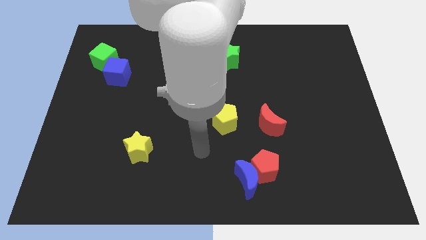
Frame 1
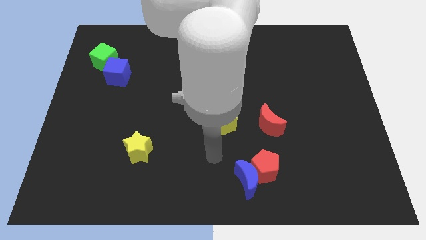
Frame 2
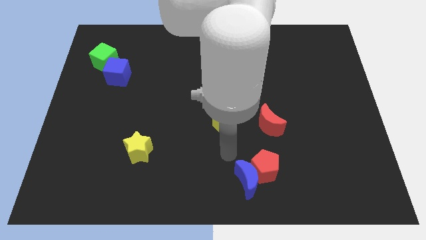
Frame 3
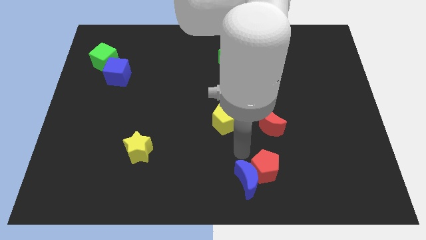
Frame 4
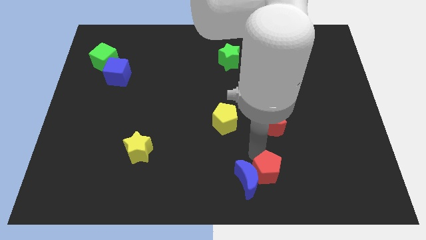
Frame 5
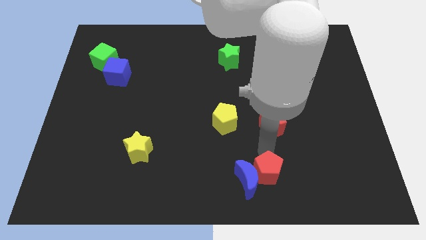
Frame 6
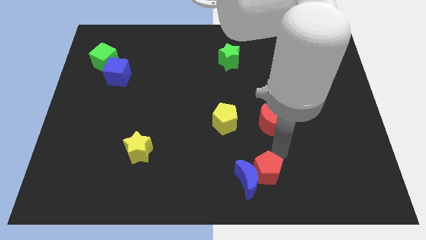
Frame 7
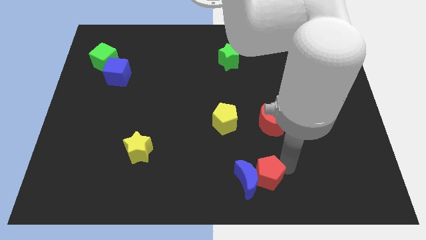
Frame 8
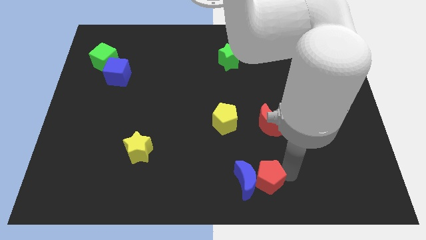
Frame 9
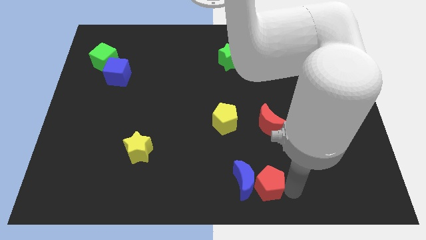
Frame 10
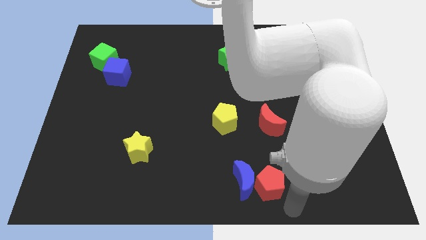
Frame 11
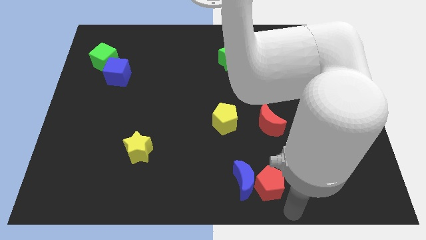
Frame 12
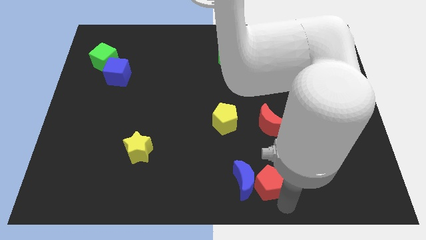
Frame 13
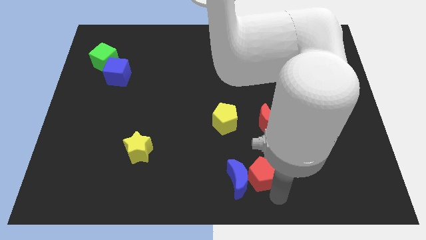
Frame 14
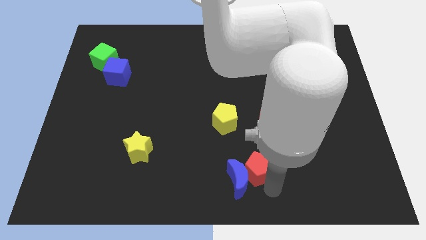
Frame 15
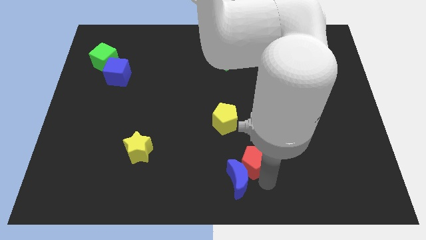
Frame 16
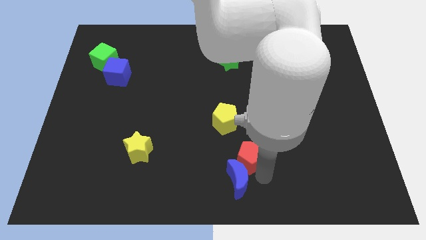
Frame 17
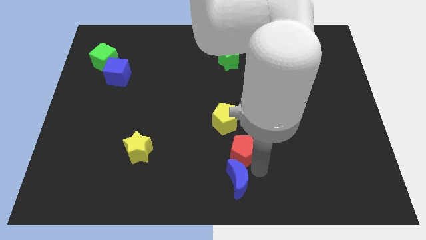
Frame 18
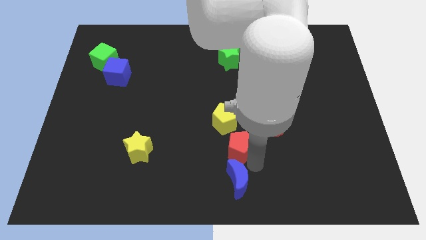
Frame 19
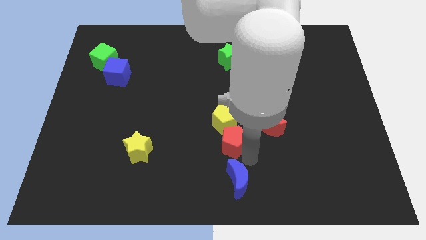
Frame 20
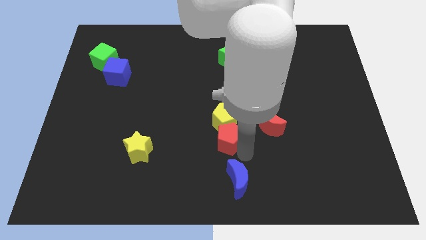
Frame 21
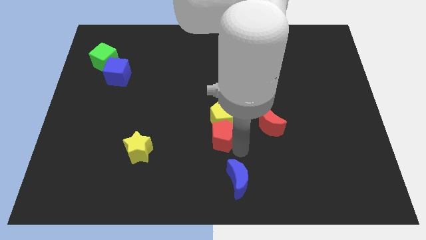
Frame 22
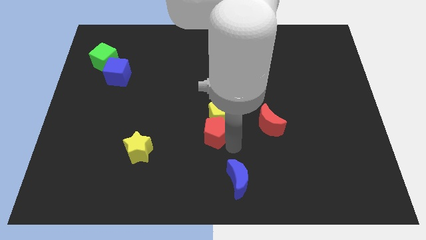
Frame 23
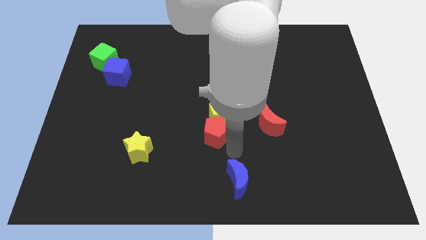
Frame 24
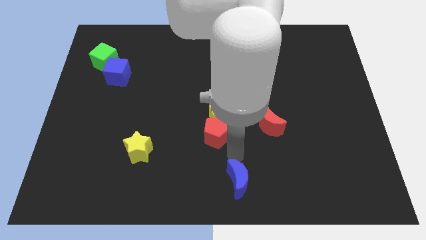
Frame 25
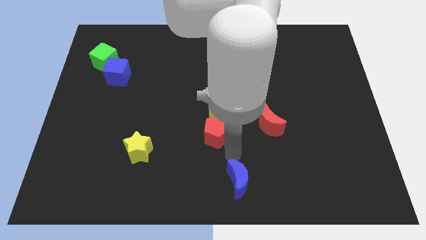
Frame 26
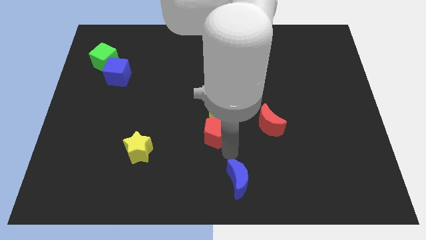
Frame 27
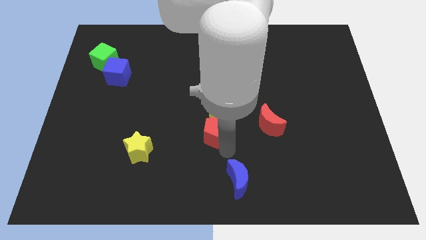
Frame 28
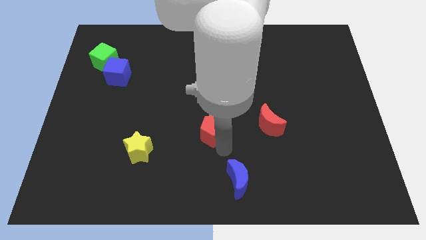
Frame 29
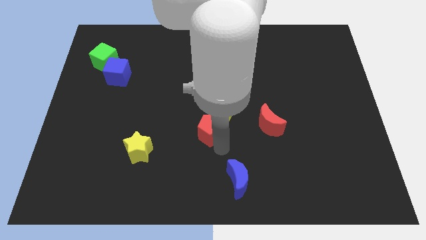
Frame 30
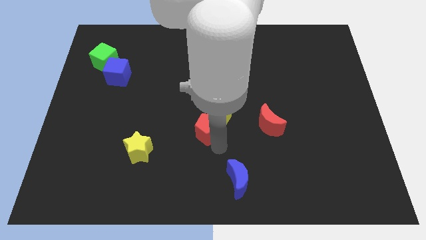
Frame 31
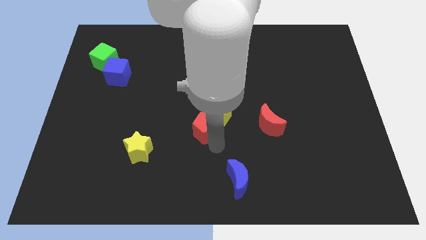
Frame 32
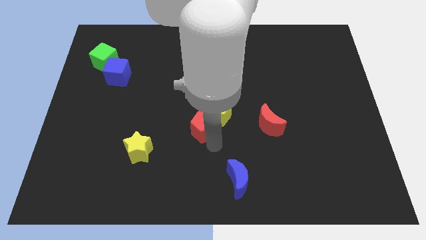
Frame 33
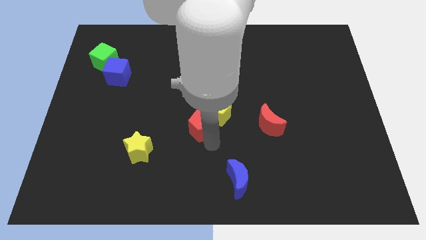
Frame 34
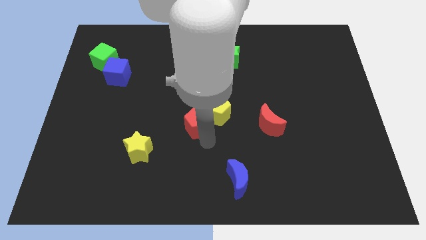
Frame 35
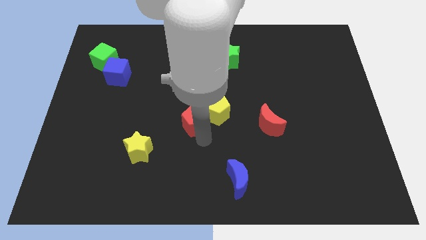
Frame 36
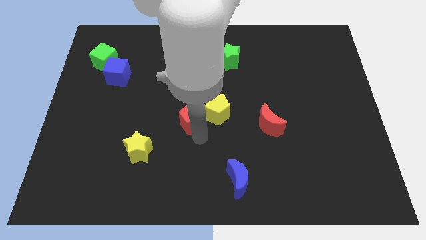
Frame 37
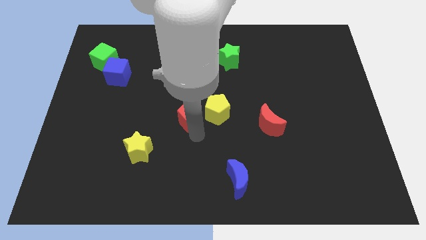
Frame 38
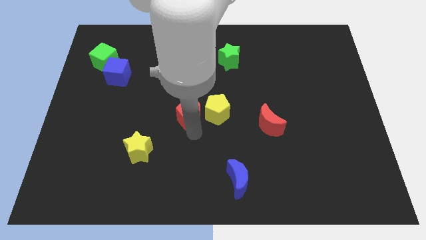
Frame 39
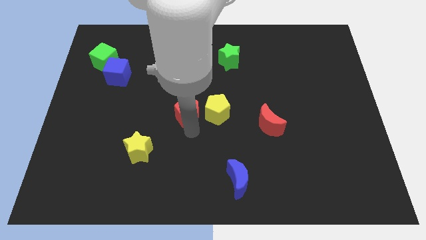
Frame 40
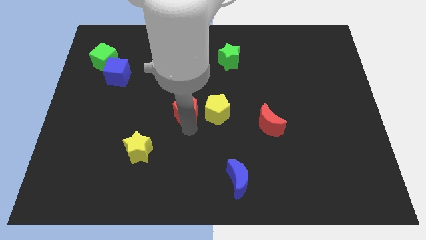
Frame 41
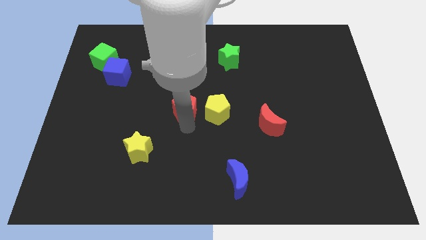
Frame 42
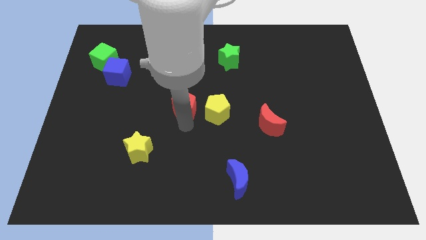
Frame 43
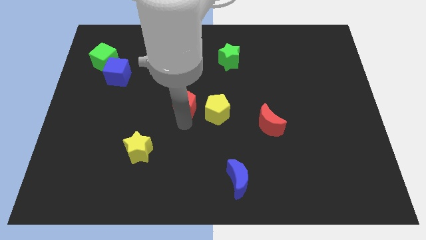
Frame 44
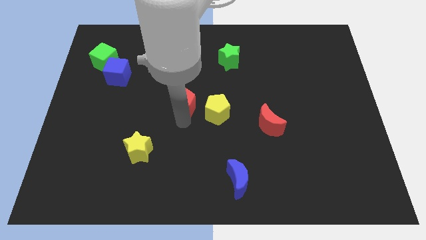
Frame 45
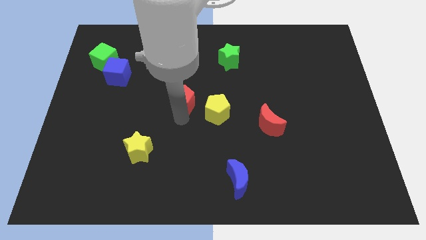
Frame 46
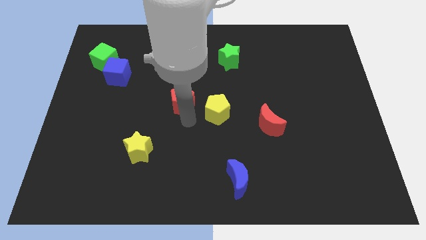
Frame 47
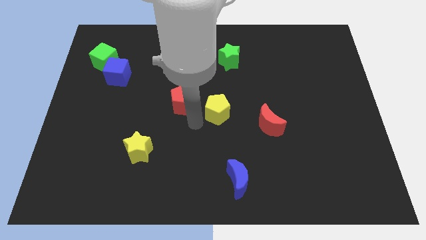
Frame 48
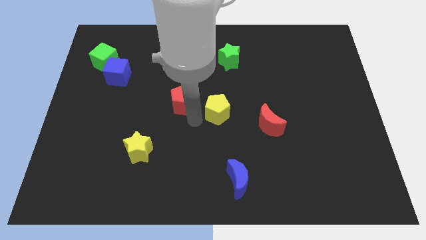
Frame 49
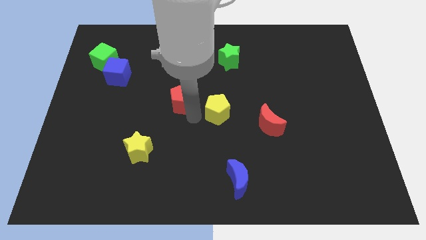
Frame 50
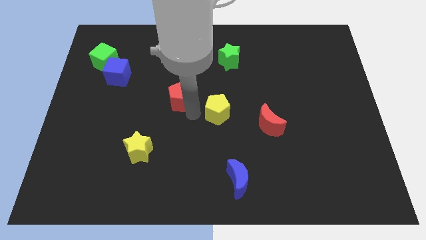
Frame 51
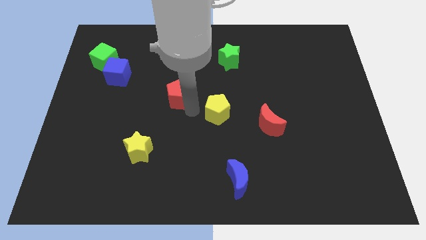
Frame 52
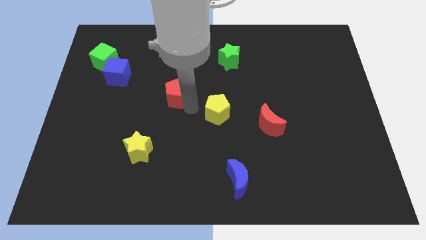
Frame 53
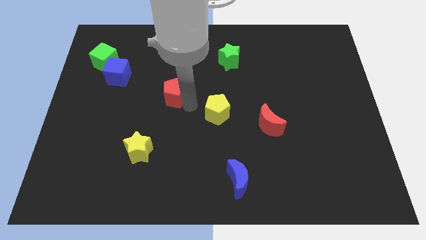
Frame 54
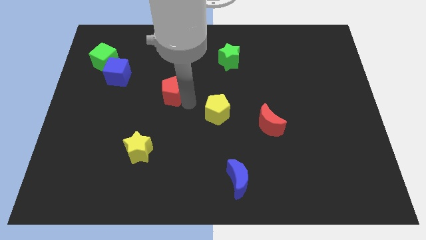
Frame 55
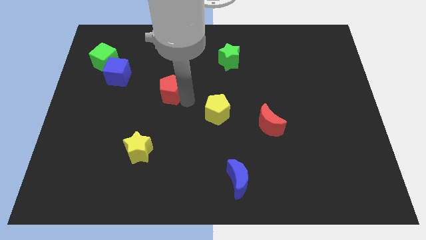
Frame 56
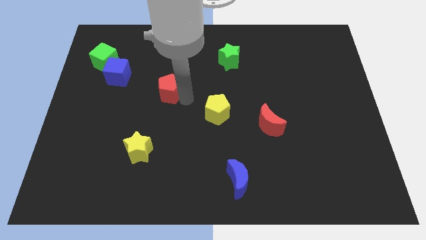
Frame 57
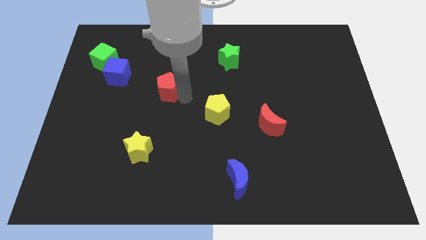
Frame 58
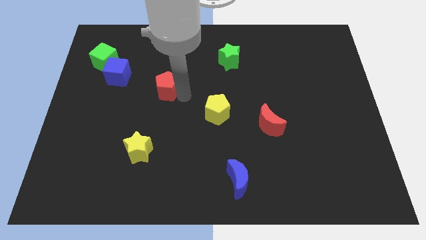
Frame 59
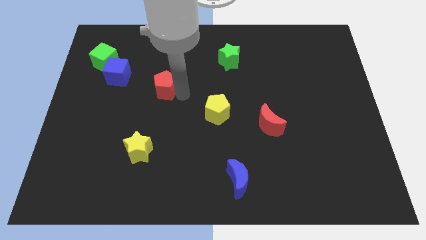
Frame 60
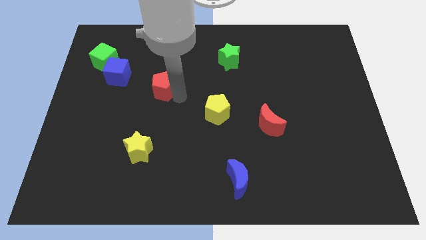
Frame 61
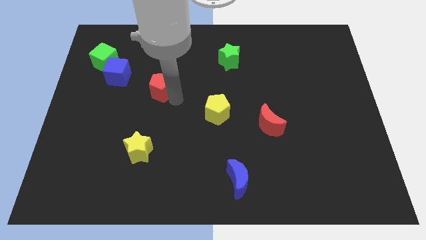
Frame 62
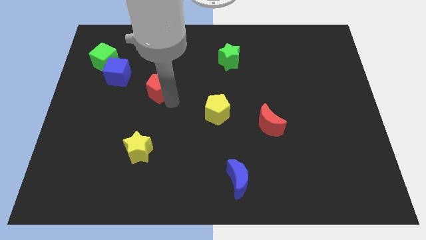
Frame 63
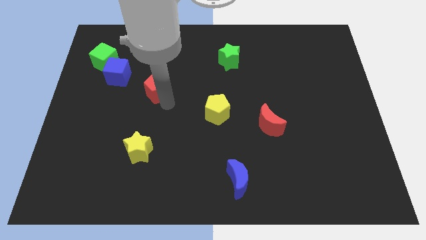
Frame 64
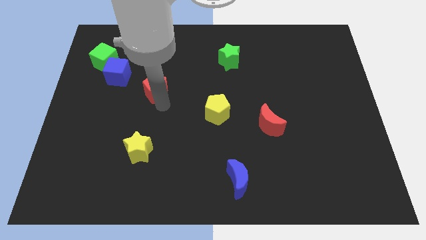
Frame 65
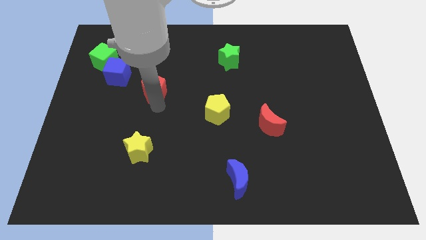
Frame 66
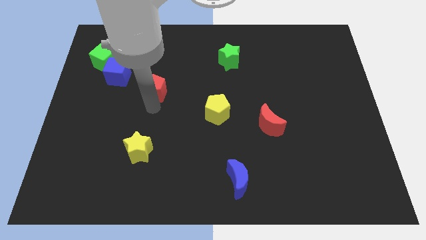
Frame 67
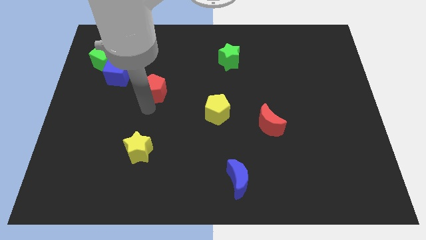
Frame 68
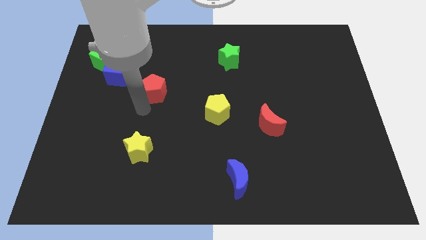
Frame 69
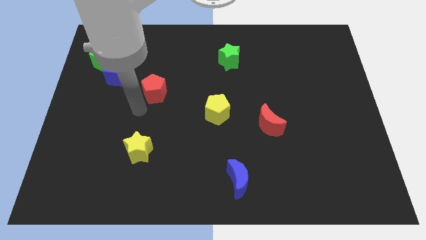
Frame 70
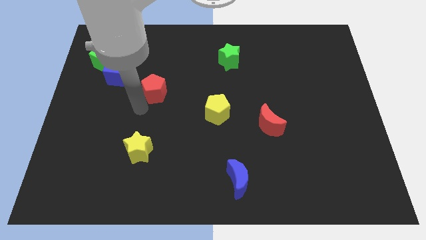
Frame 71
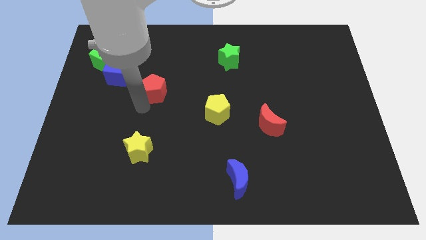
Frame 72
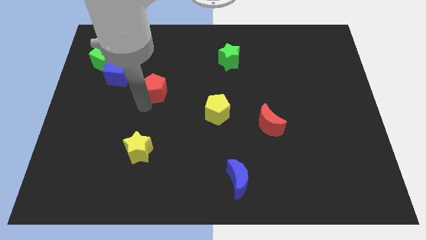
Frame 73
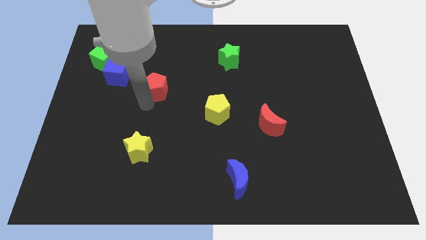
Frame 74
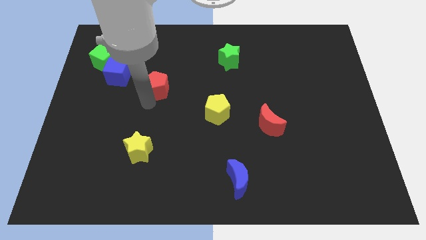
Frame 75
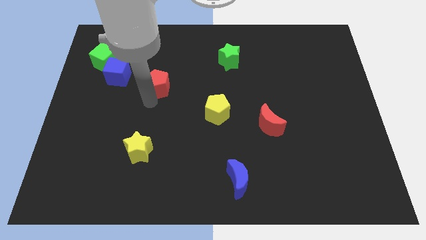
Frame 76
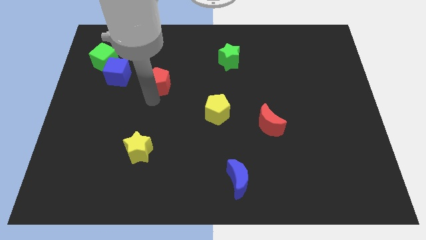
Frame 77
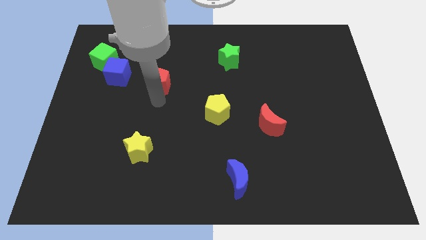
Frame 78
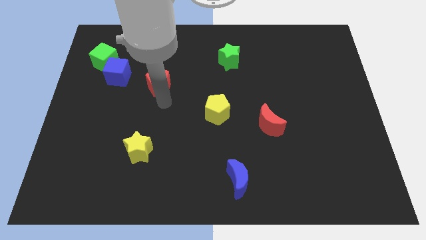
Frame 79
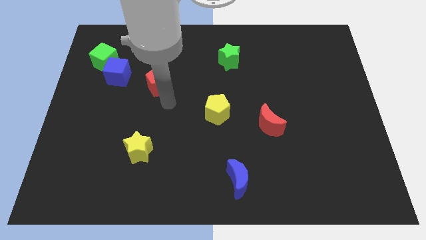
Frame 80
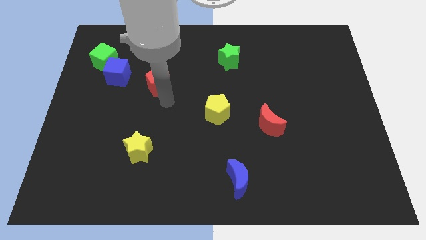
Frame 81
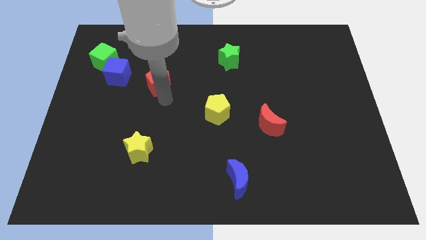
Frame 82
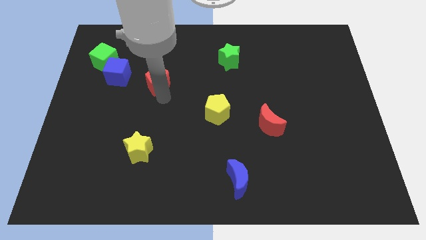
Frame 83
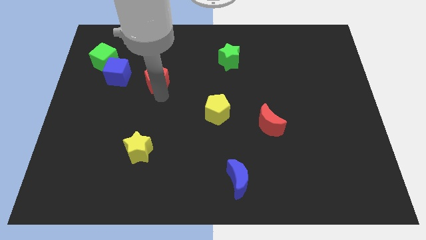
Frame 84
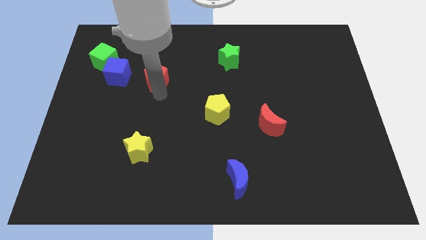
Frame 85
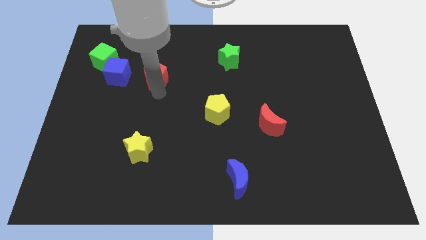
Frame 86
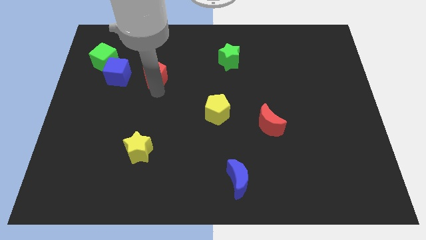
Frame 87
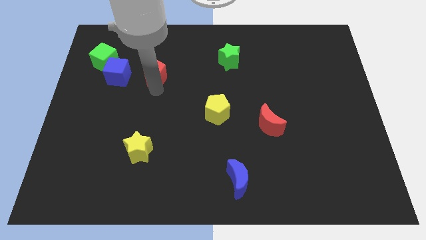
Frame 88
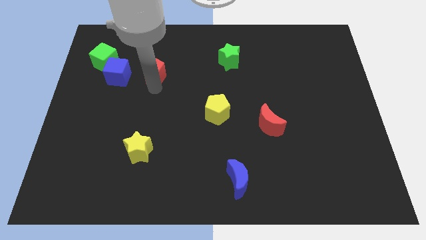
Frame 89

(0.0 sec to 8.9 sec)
move the red pentagon just right of the green cube
